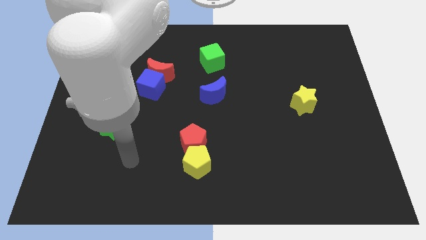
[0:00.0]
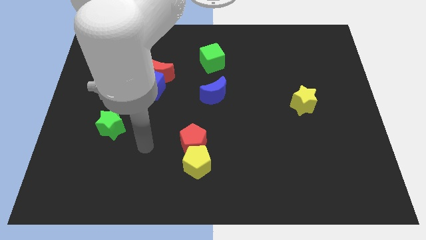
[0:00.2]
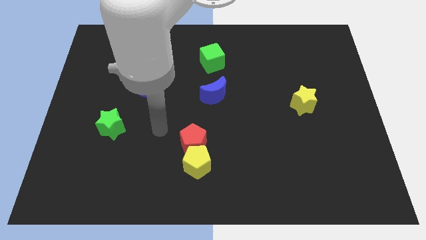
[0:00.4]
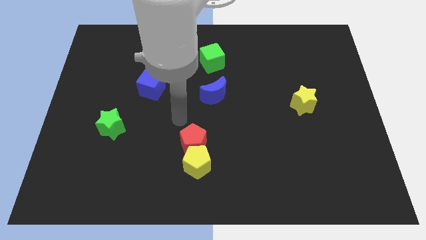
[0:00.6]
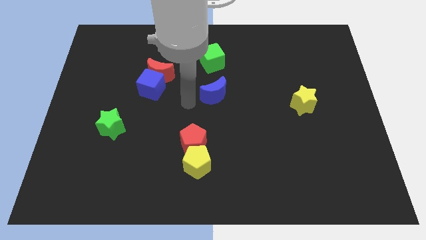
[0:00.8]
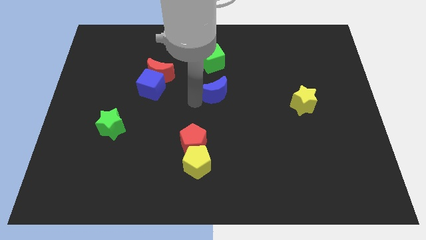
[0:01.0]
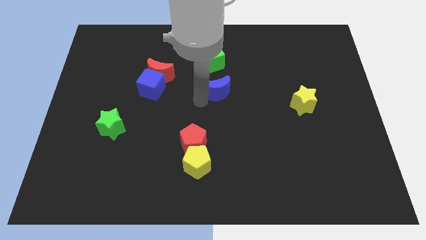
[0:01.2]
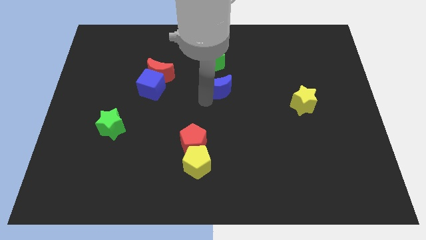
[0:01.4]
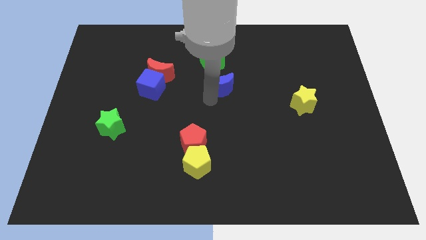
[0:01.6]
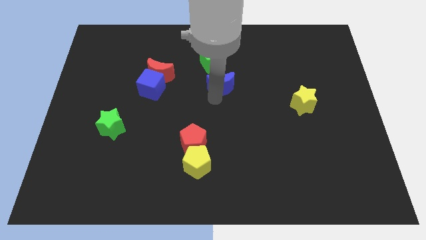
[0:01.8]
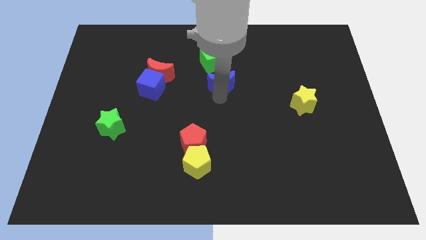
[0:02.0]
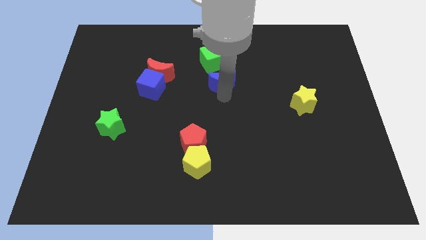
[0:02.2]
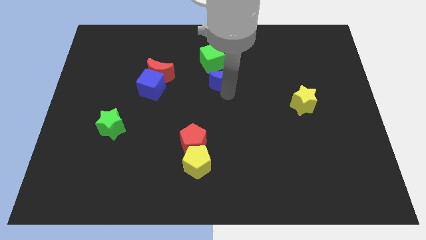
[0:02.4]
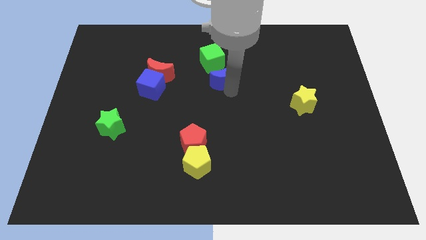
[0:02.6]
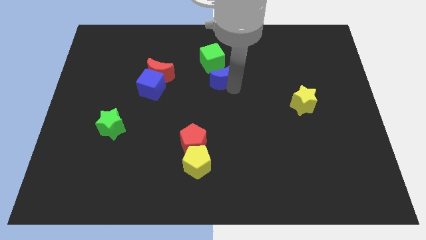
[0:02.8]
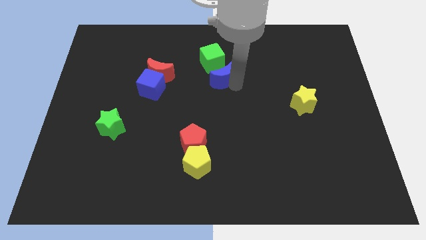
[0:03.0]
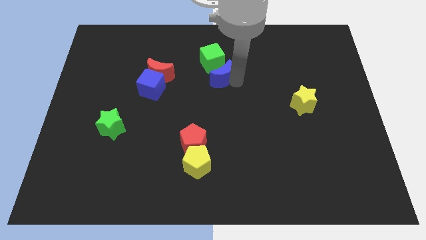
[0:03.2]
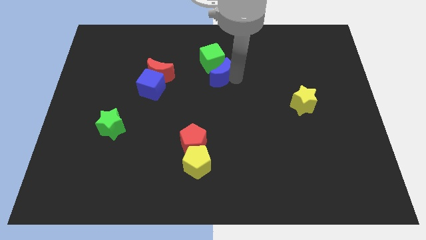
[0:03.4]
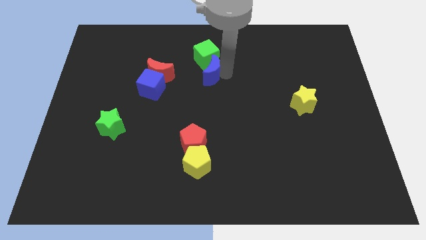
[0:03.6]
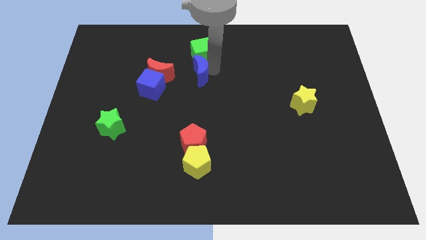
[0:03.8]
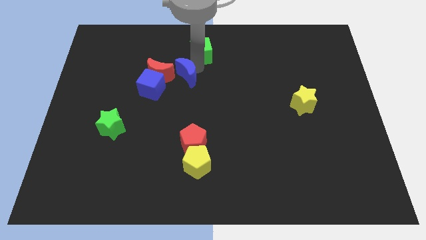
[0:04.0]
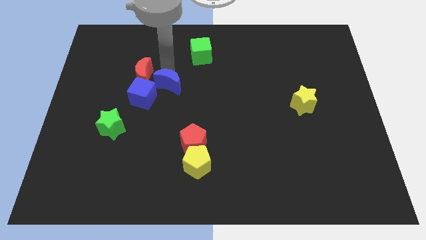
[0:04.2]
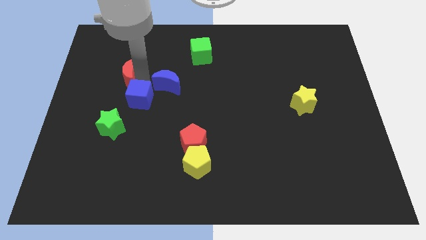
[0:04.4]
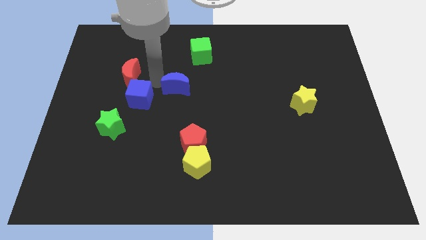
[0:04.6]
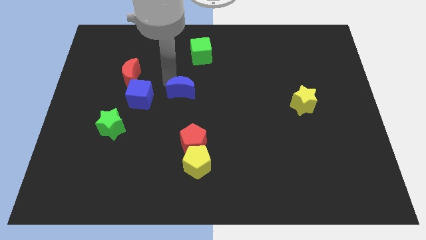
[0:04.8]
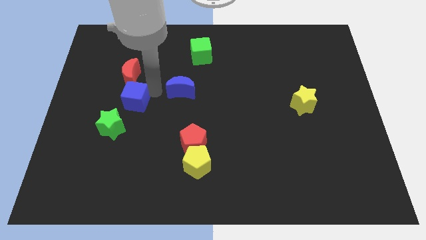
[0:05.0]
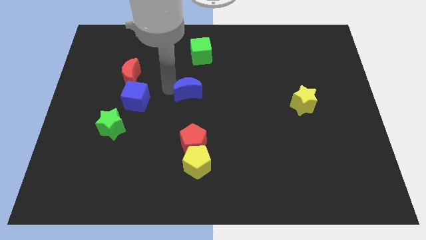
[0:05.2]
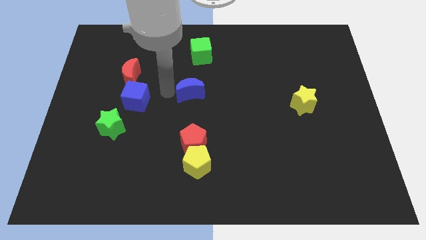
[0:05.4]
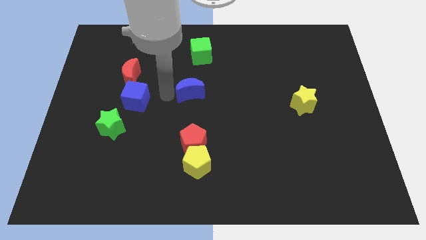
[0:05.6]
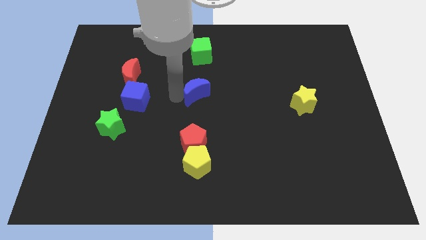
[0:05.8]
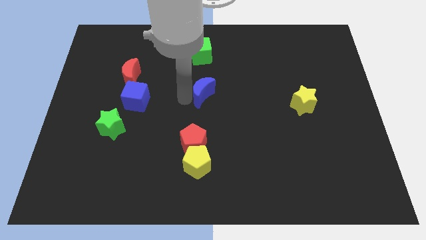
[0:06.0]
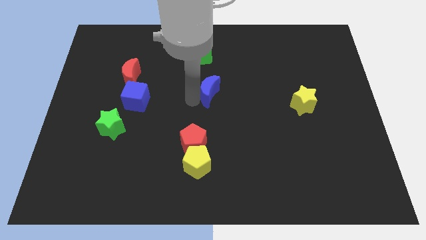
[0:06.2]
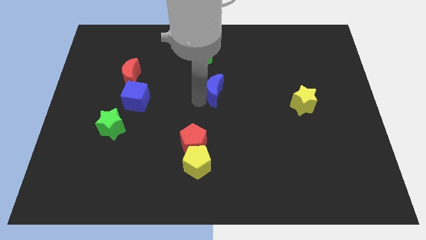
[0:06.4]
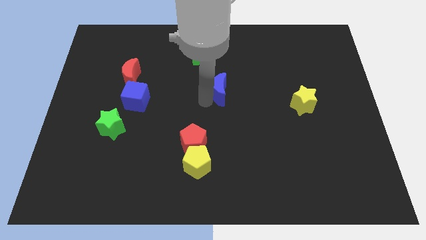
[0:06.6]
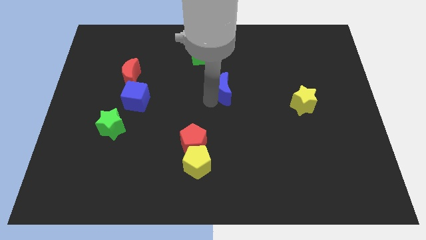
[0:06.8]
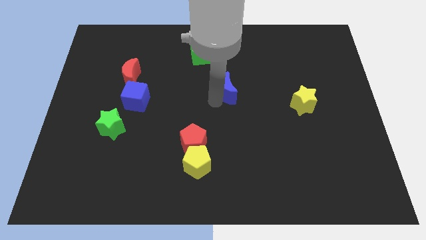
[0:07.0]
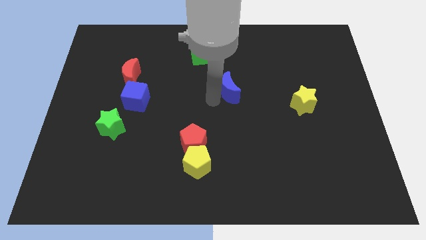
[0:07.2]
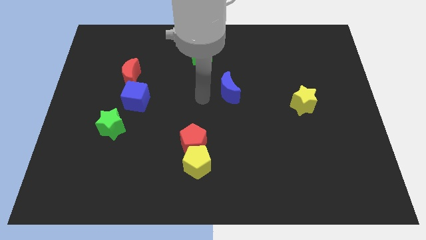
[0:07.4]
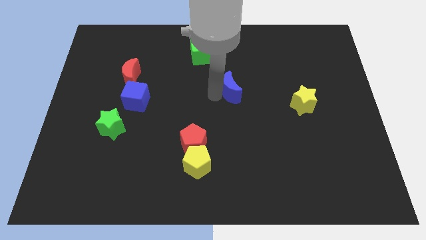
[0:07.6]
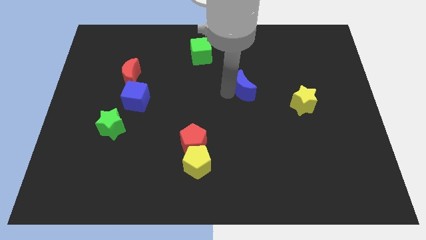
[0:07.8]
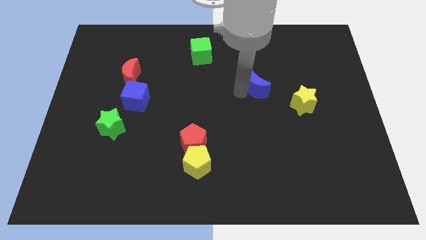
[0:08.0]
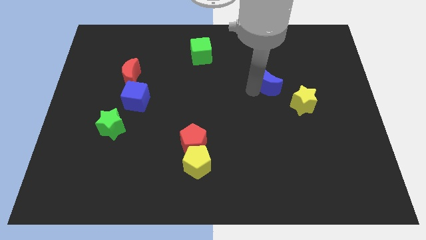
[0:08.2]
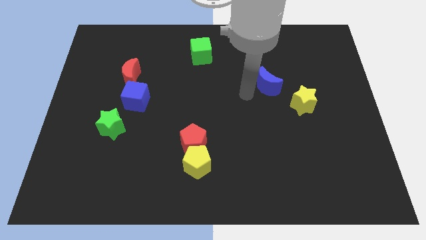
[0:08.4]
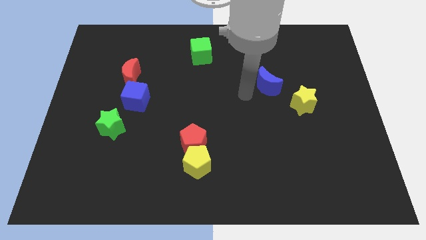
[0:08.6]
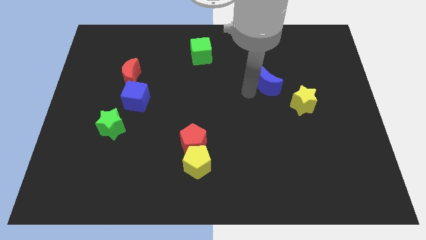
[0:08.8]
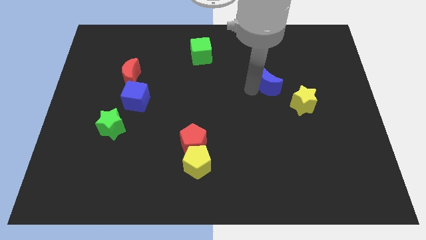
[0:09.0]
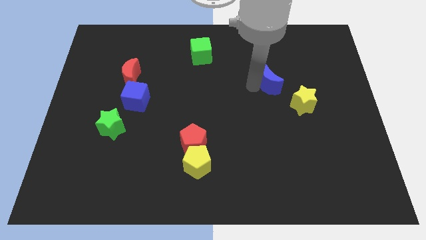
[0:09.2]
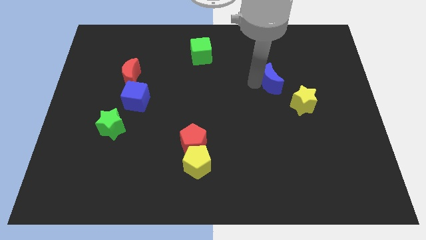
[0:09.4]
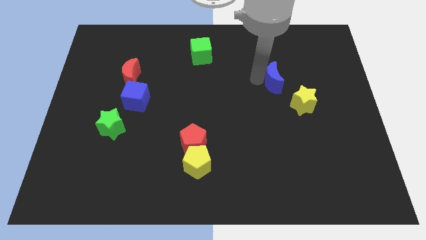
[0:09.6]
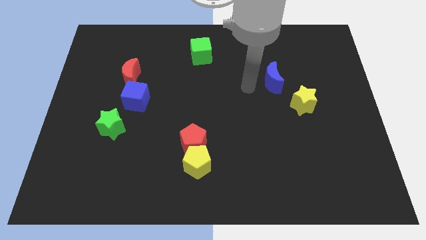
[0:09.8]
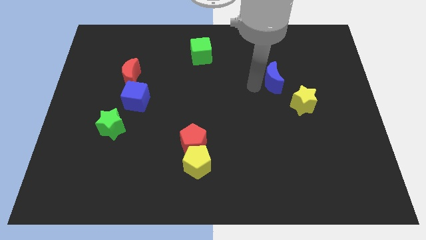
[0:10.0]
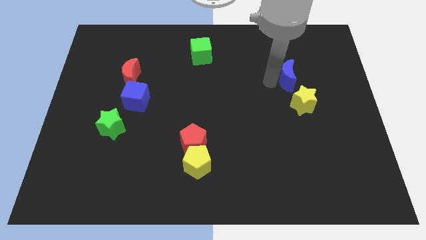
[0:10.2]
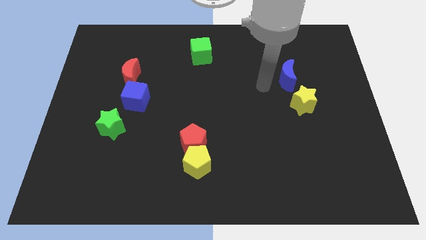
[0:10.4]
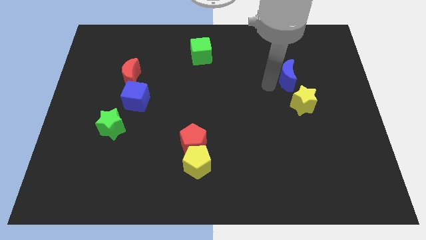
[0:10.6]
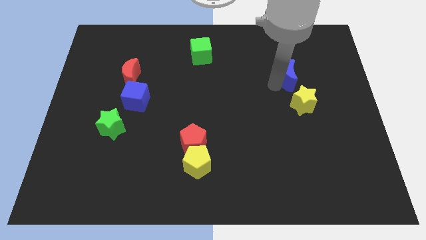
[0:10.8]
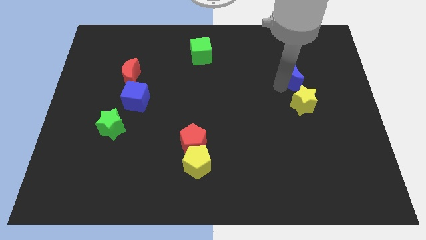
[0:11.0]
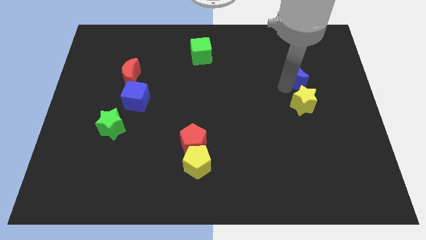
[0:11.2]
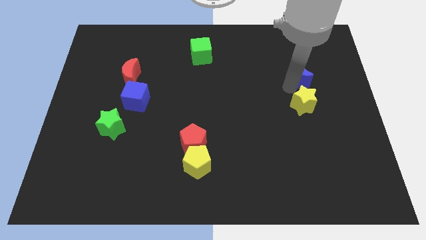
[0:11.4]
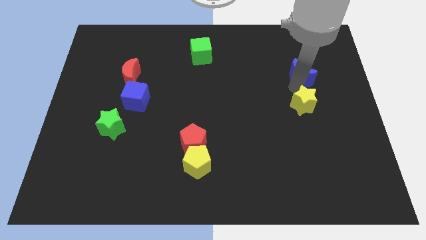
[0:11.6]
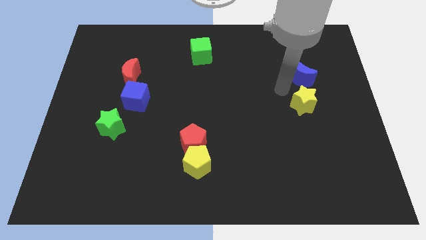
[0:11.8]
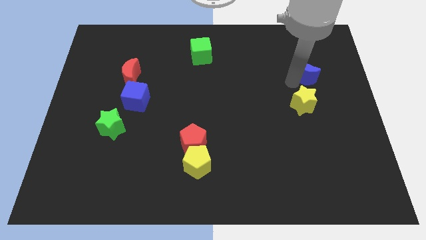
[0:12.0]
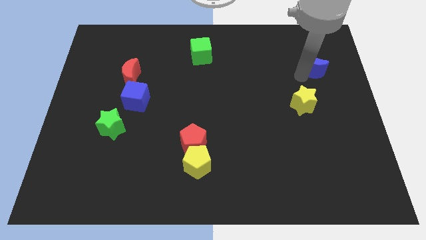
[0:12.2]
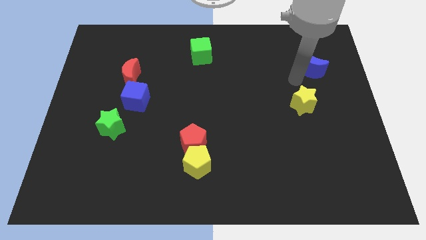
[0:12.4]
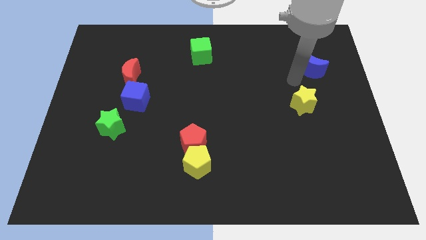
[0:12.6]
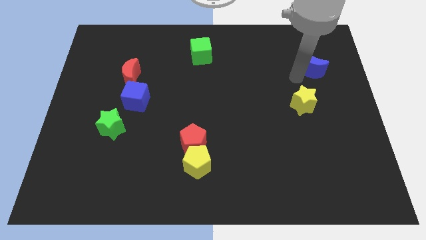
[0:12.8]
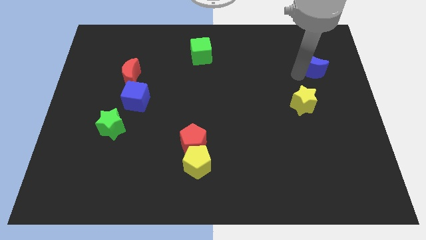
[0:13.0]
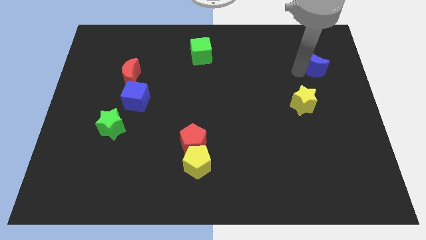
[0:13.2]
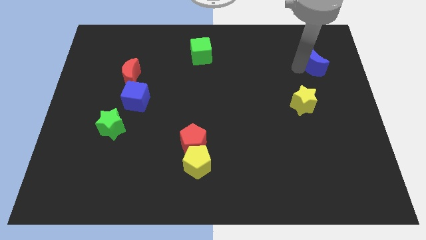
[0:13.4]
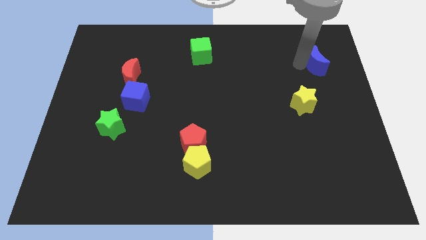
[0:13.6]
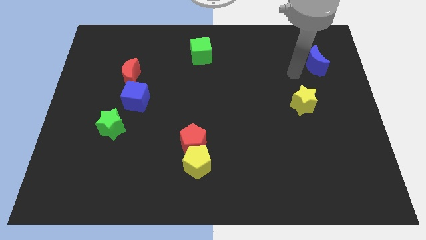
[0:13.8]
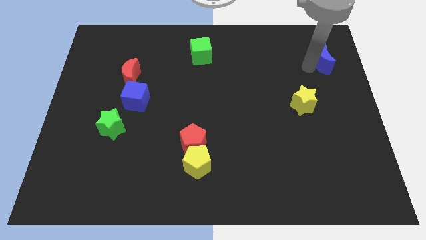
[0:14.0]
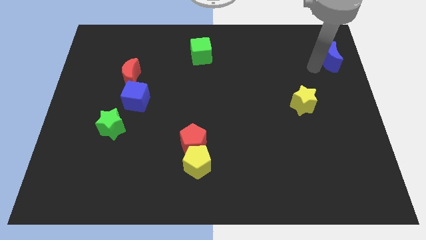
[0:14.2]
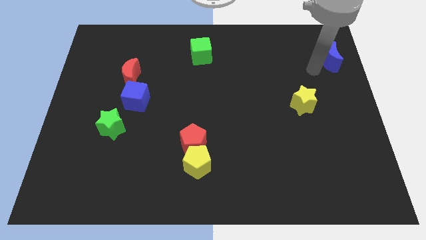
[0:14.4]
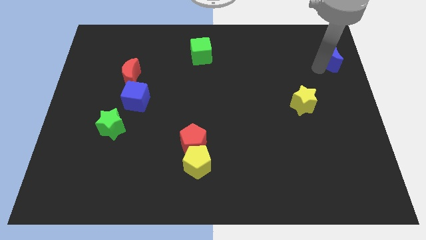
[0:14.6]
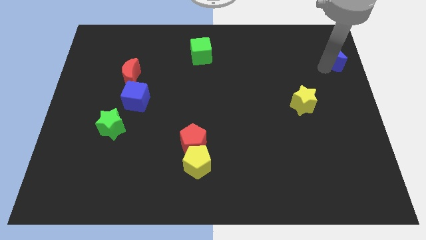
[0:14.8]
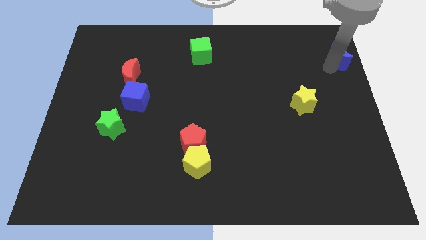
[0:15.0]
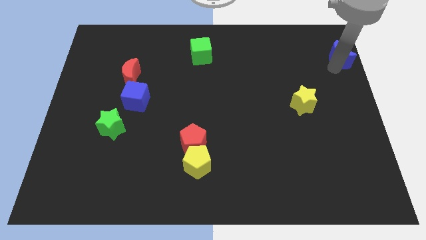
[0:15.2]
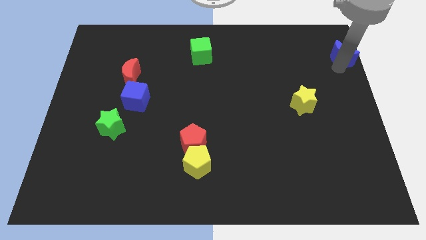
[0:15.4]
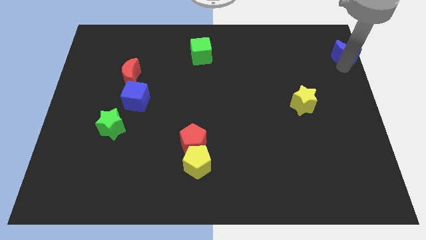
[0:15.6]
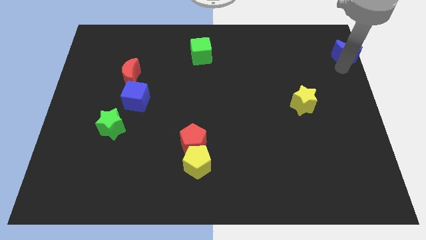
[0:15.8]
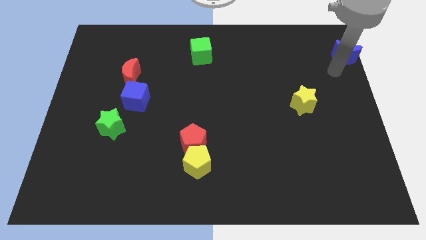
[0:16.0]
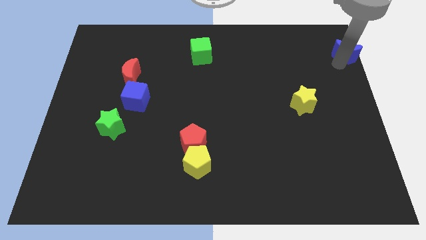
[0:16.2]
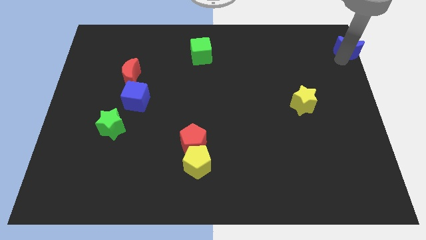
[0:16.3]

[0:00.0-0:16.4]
put the blue moon to the top right corner
